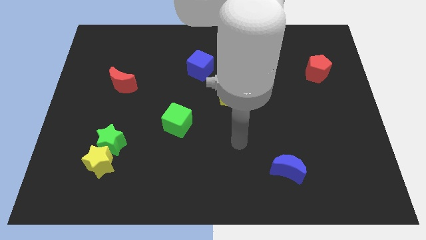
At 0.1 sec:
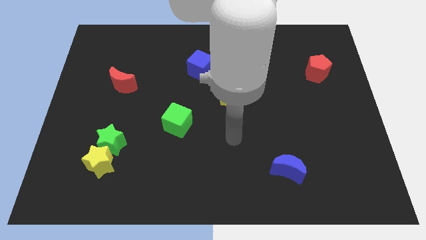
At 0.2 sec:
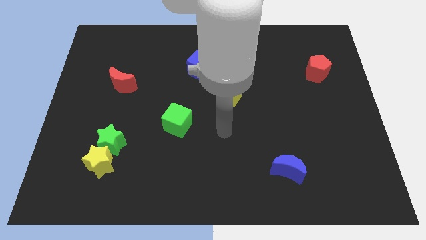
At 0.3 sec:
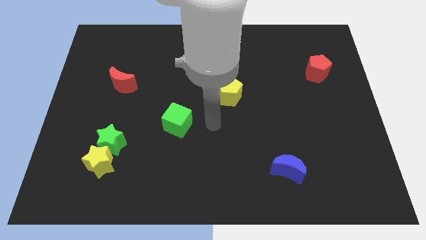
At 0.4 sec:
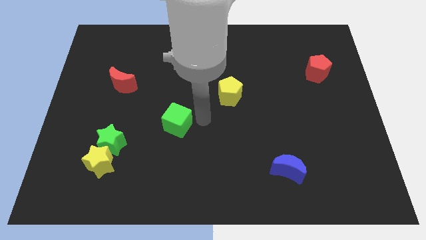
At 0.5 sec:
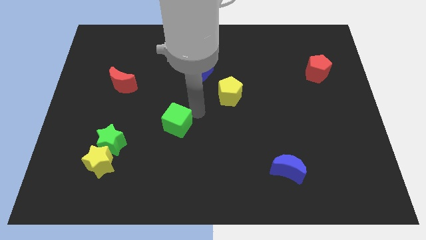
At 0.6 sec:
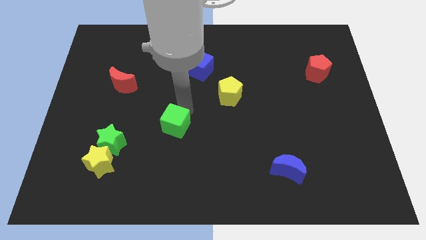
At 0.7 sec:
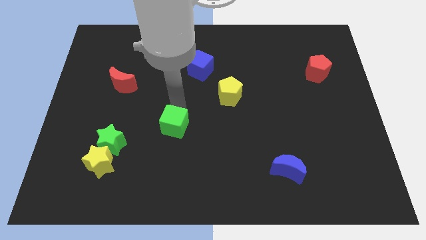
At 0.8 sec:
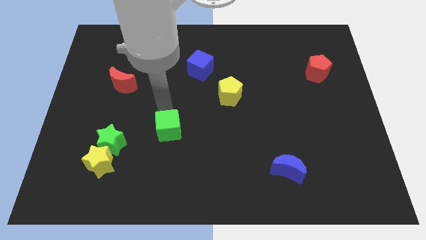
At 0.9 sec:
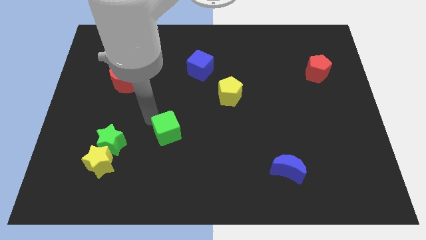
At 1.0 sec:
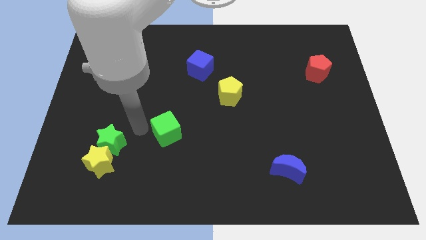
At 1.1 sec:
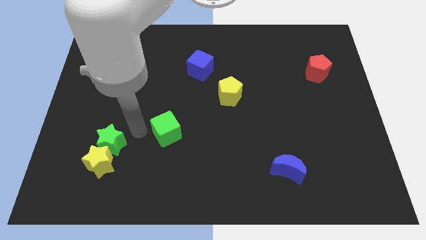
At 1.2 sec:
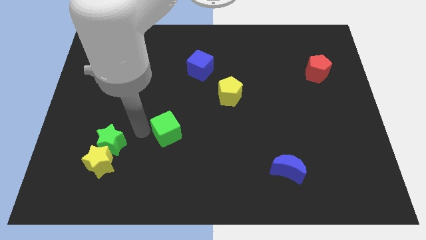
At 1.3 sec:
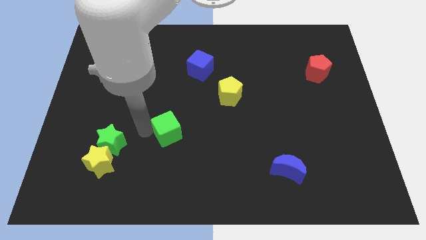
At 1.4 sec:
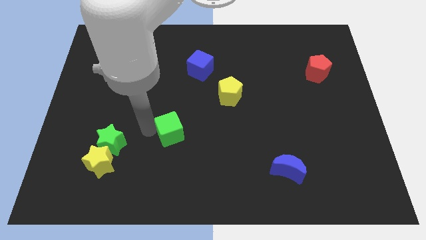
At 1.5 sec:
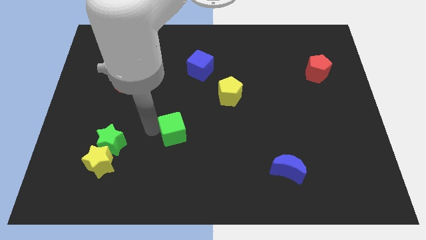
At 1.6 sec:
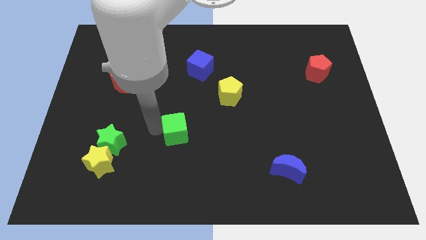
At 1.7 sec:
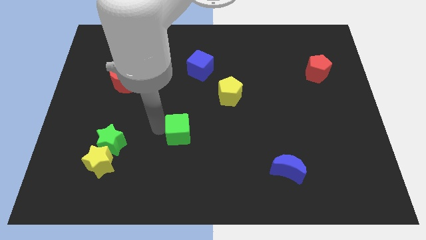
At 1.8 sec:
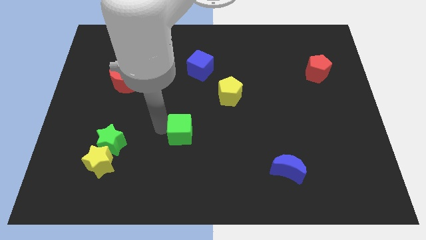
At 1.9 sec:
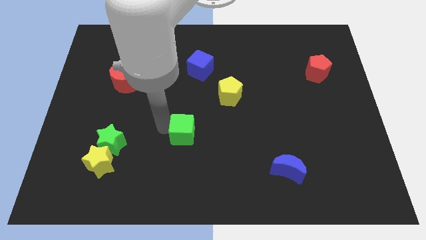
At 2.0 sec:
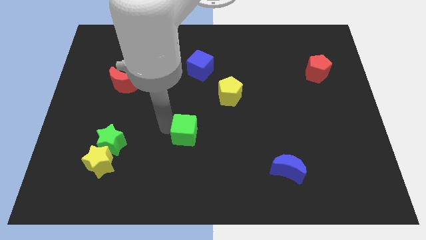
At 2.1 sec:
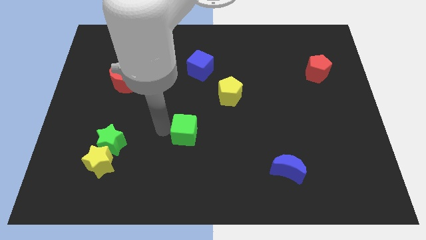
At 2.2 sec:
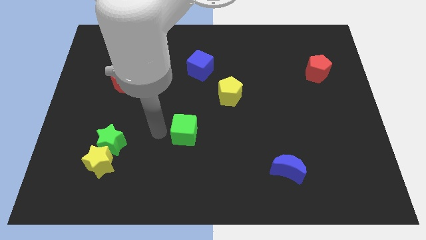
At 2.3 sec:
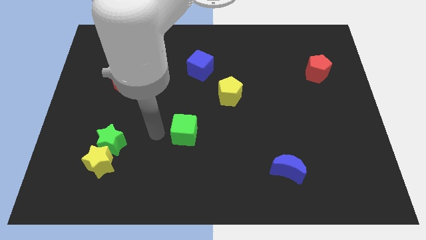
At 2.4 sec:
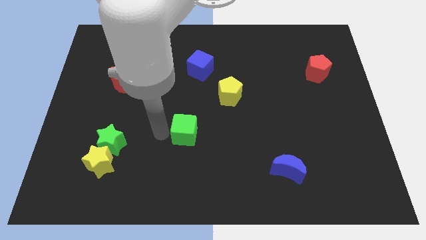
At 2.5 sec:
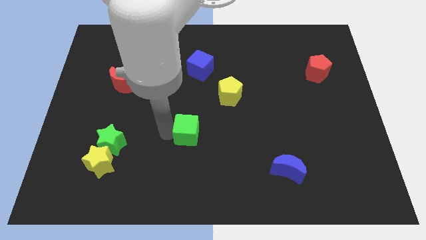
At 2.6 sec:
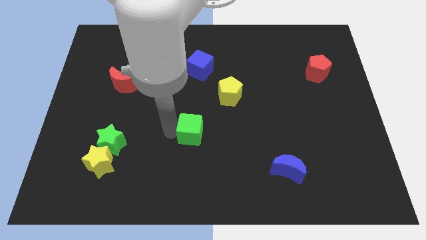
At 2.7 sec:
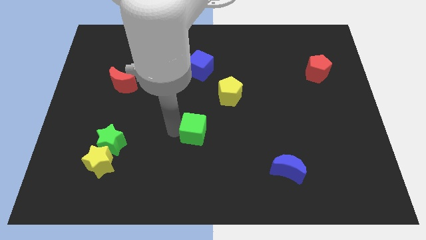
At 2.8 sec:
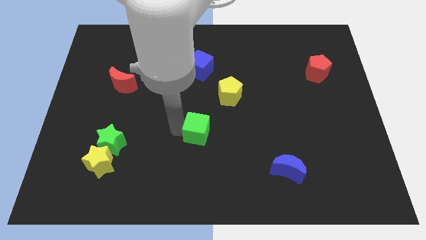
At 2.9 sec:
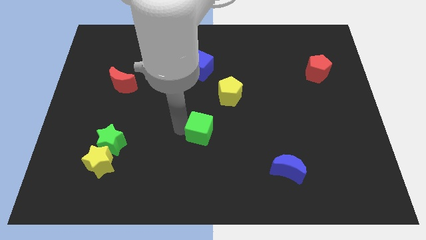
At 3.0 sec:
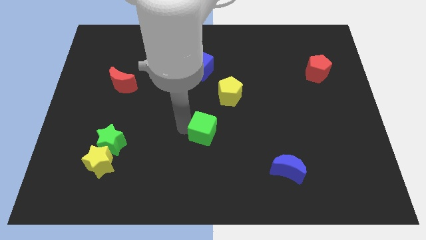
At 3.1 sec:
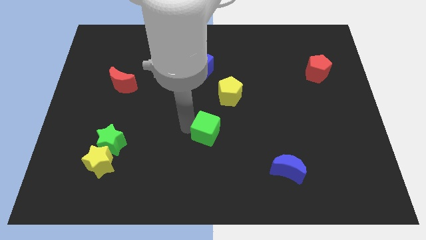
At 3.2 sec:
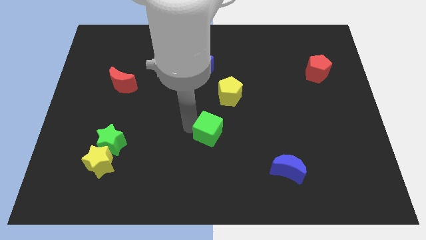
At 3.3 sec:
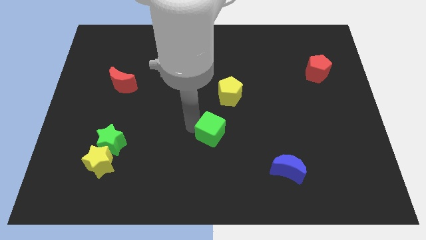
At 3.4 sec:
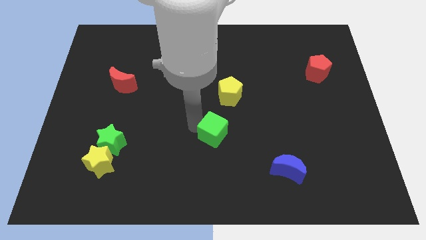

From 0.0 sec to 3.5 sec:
move the green cube diagonally downwards and right a little

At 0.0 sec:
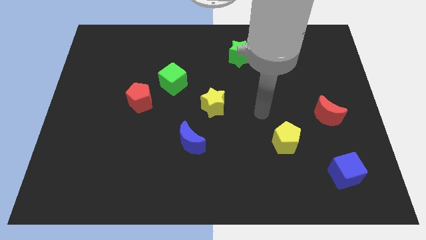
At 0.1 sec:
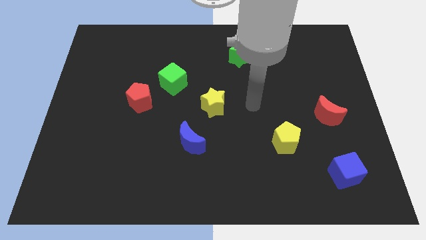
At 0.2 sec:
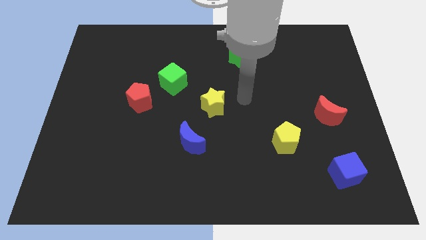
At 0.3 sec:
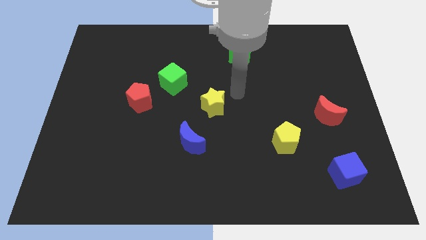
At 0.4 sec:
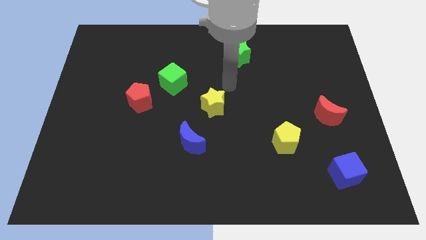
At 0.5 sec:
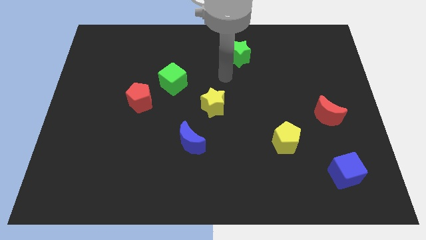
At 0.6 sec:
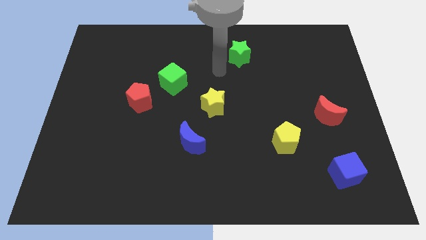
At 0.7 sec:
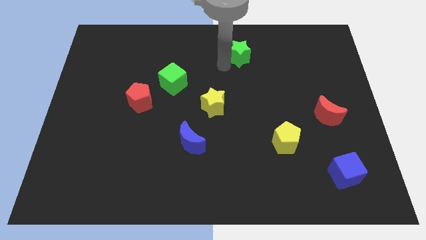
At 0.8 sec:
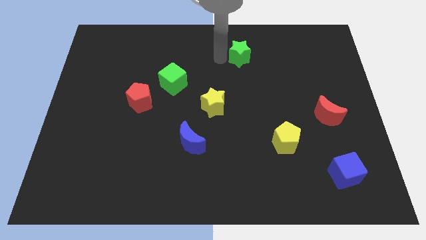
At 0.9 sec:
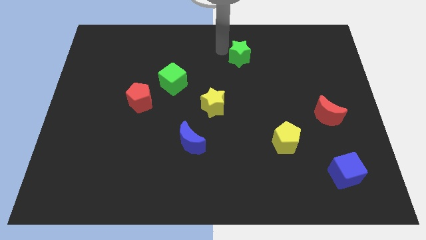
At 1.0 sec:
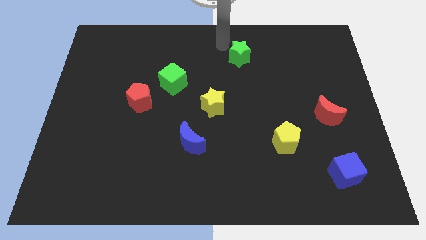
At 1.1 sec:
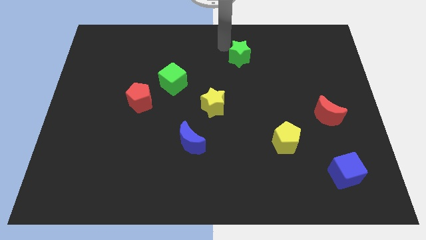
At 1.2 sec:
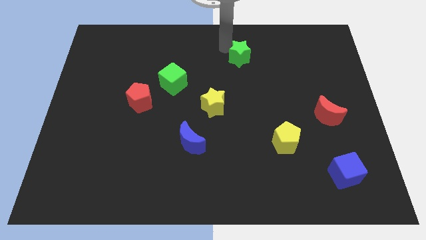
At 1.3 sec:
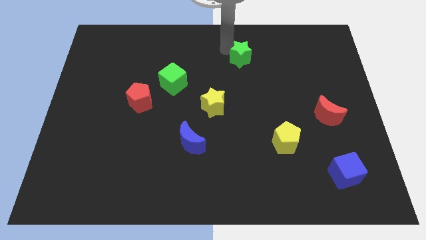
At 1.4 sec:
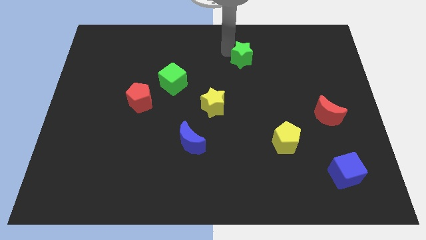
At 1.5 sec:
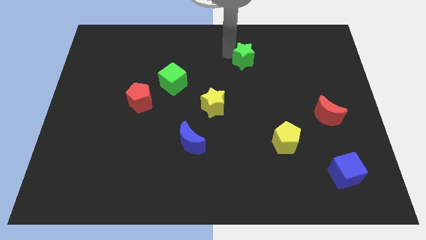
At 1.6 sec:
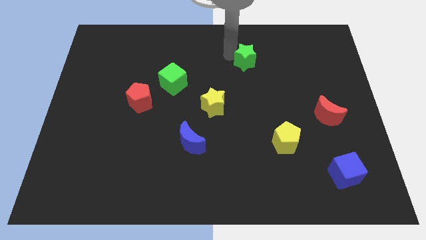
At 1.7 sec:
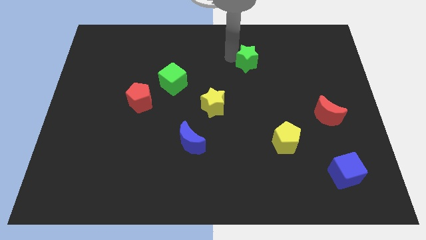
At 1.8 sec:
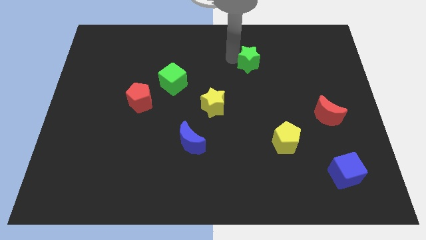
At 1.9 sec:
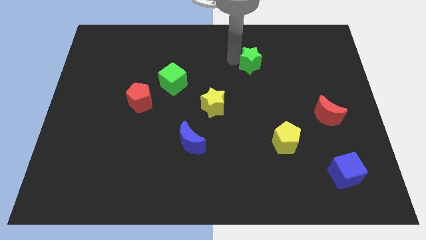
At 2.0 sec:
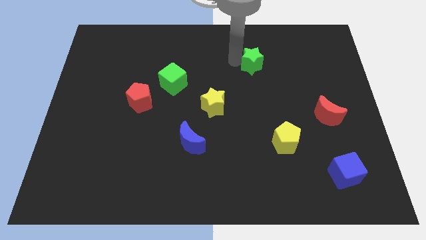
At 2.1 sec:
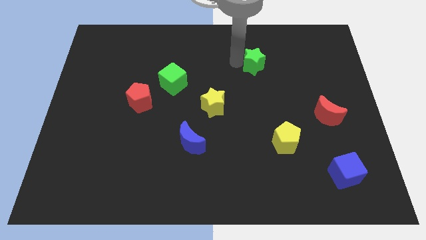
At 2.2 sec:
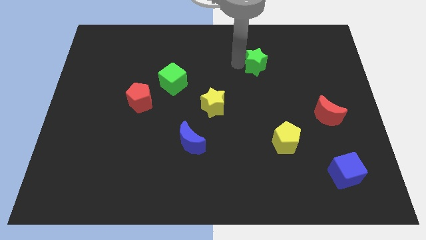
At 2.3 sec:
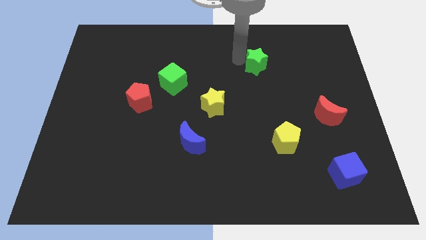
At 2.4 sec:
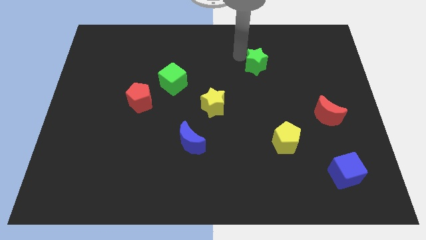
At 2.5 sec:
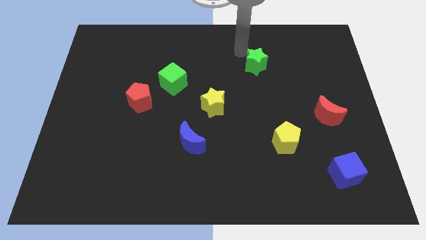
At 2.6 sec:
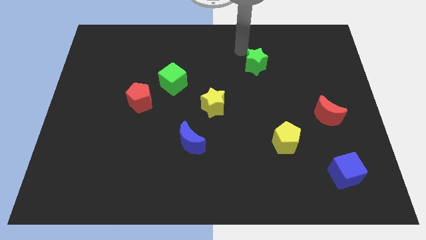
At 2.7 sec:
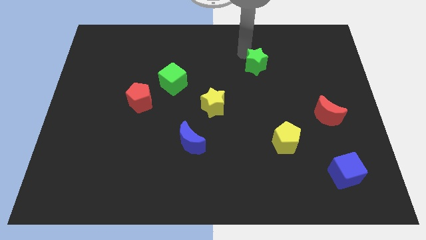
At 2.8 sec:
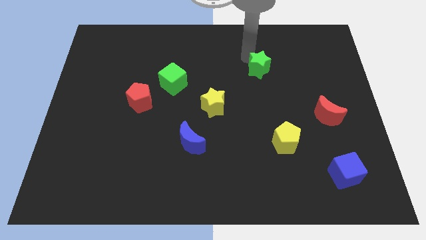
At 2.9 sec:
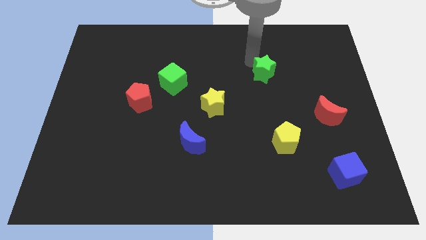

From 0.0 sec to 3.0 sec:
slightly slide the green star downwards and then to the right

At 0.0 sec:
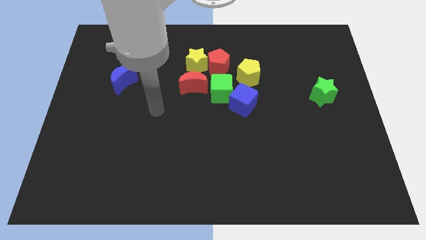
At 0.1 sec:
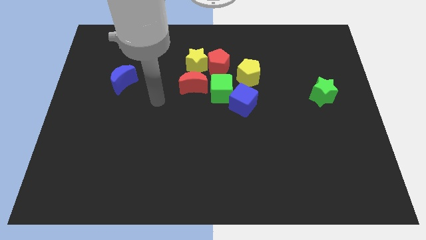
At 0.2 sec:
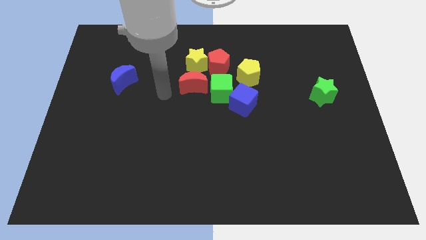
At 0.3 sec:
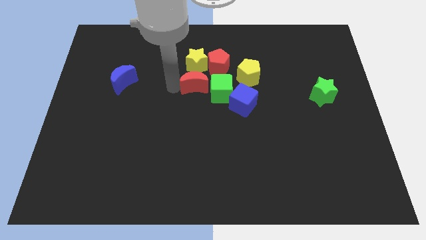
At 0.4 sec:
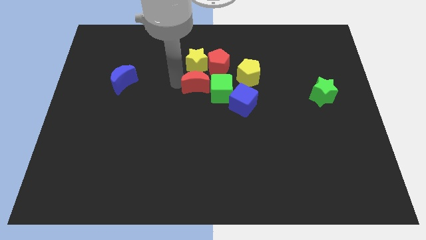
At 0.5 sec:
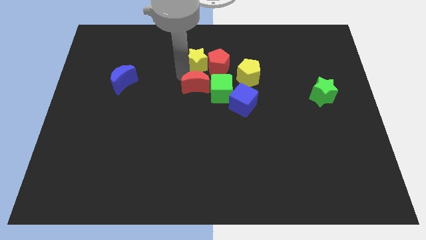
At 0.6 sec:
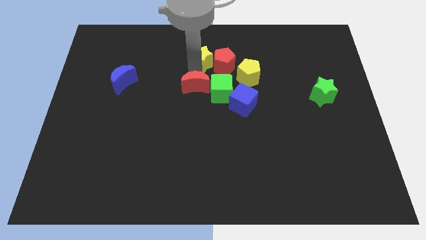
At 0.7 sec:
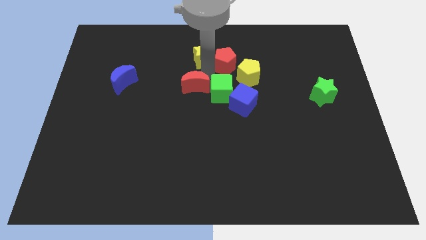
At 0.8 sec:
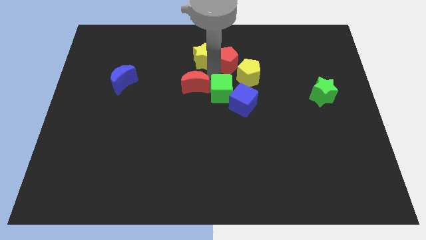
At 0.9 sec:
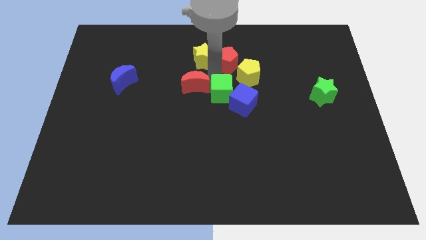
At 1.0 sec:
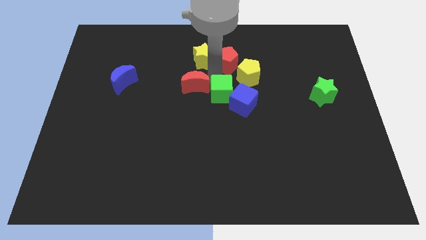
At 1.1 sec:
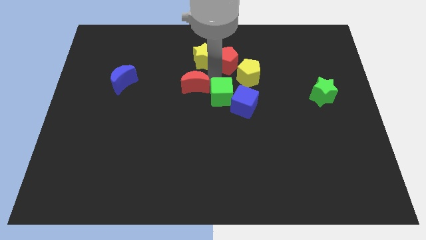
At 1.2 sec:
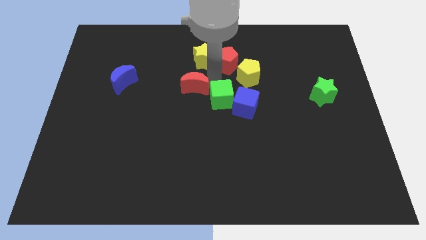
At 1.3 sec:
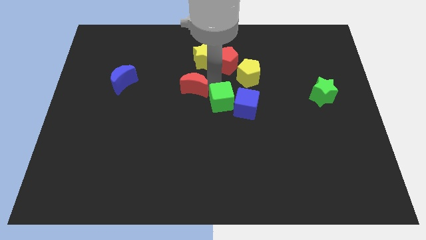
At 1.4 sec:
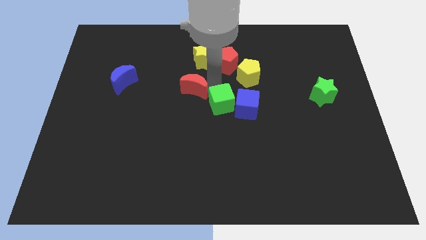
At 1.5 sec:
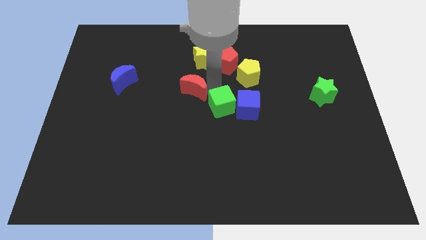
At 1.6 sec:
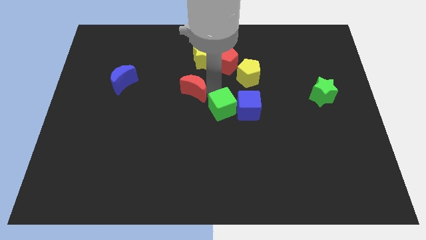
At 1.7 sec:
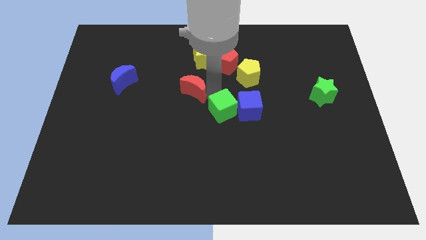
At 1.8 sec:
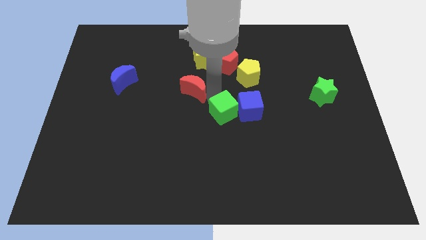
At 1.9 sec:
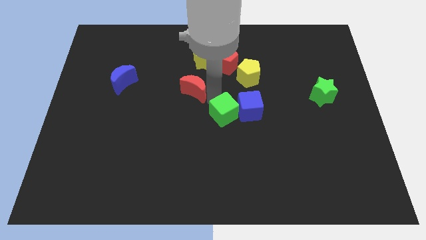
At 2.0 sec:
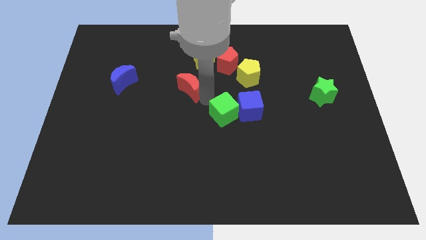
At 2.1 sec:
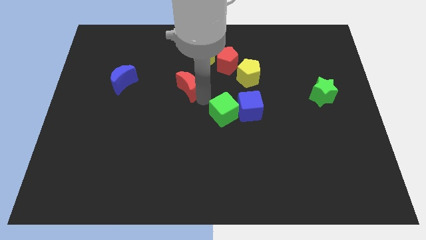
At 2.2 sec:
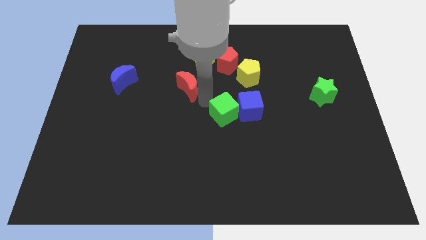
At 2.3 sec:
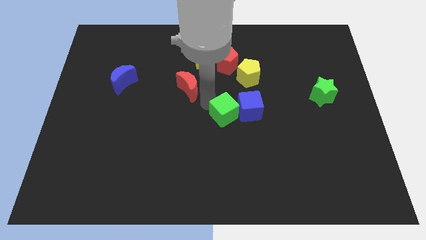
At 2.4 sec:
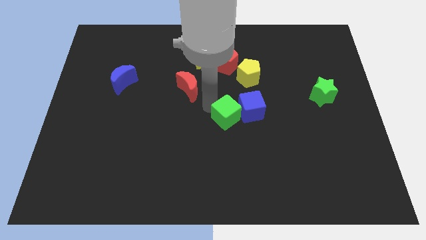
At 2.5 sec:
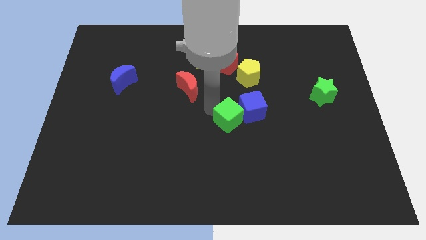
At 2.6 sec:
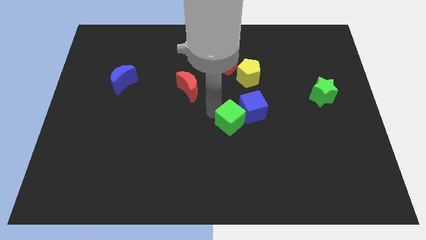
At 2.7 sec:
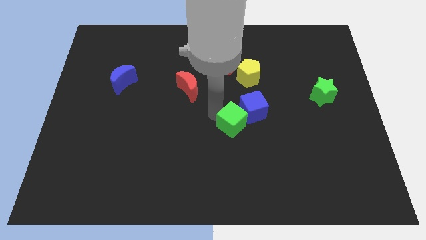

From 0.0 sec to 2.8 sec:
slightly move the green cube down and right
